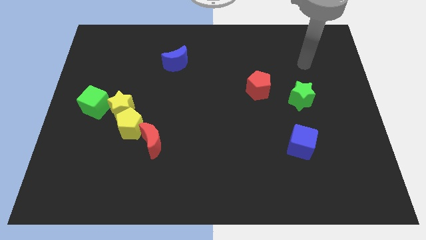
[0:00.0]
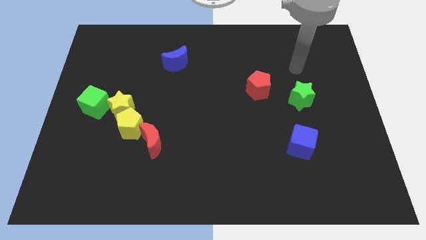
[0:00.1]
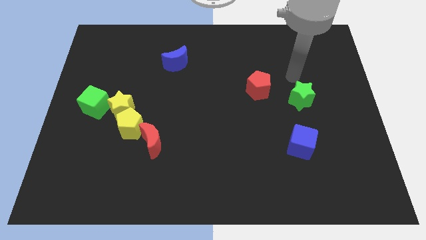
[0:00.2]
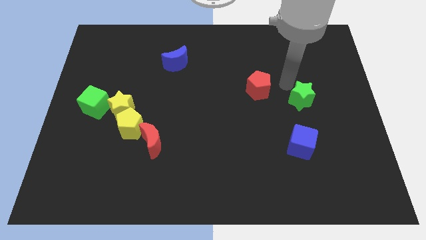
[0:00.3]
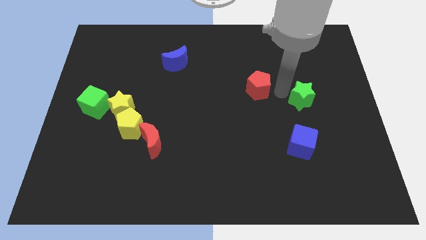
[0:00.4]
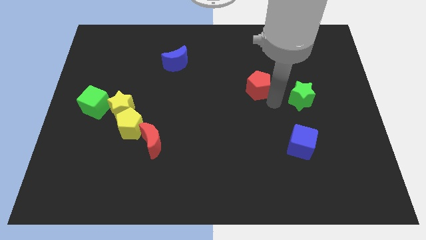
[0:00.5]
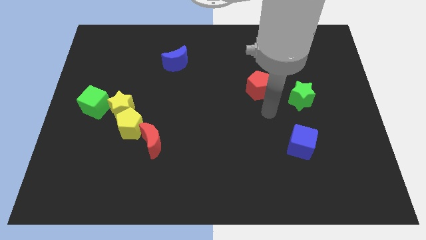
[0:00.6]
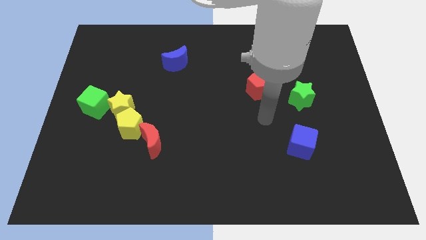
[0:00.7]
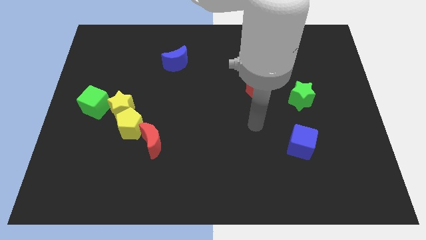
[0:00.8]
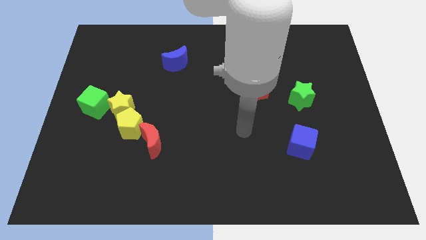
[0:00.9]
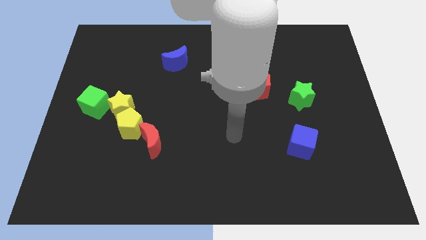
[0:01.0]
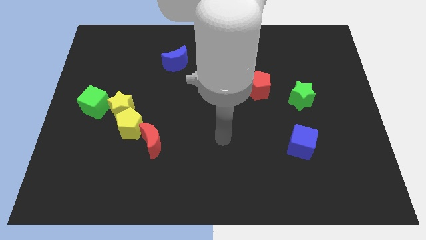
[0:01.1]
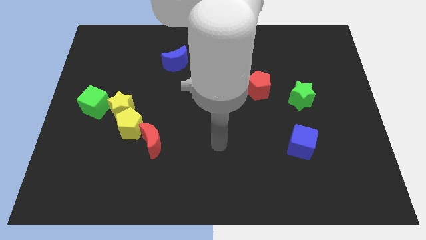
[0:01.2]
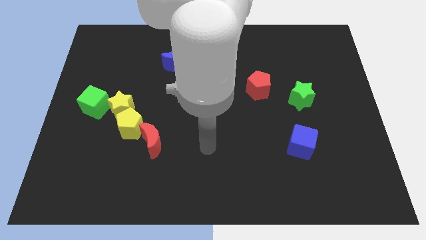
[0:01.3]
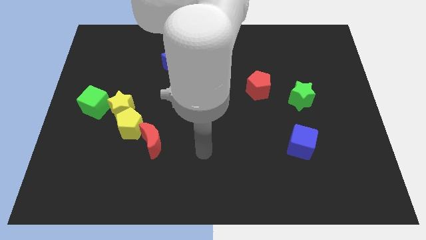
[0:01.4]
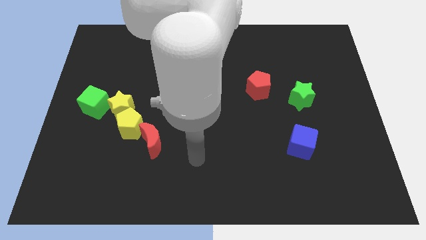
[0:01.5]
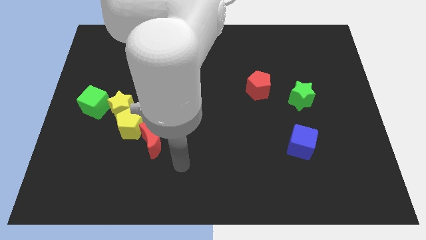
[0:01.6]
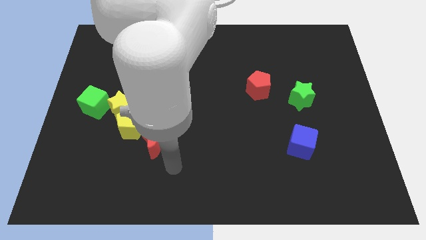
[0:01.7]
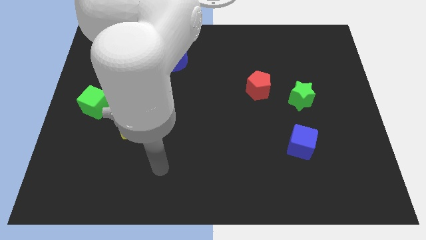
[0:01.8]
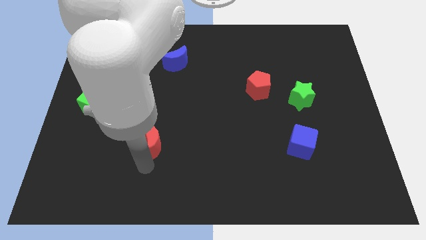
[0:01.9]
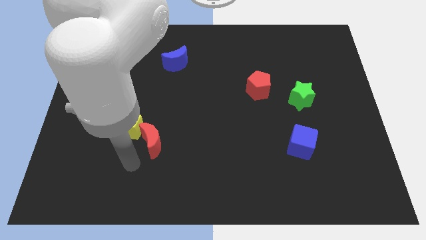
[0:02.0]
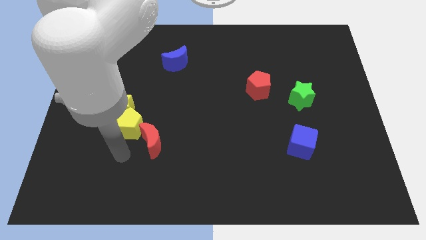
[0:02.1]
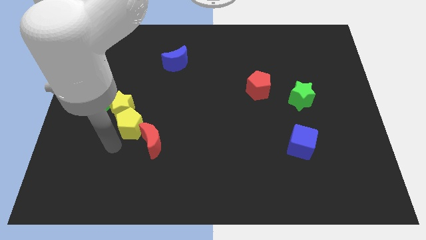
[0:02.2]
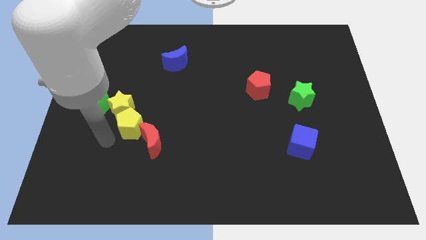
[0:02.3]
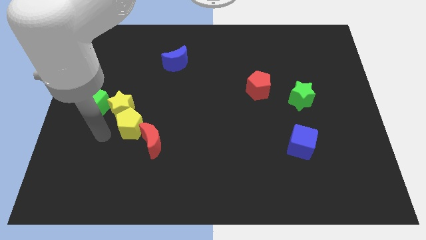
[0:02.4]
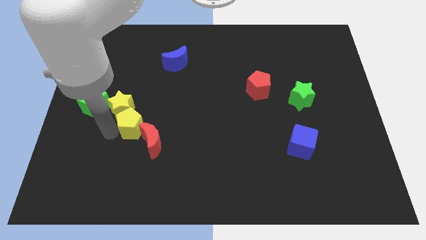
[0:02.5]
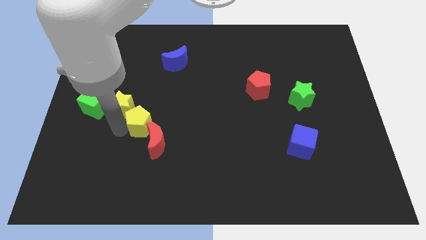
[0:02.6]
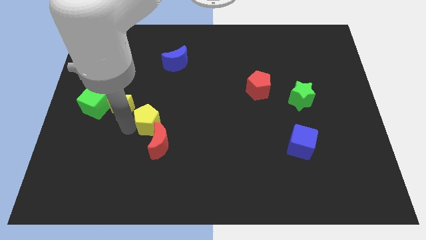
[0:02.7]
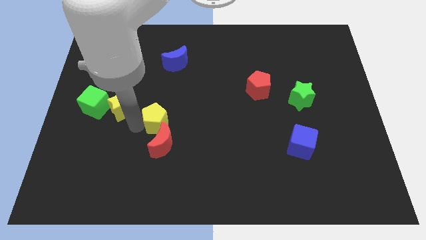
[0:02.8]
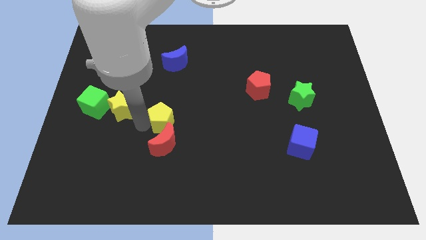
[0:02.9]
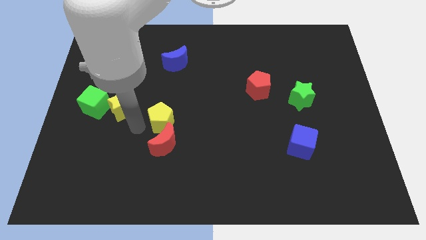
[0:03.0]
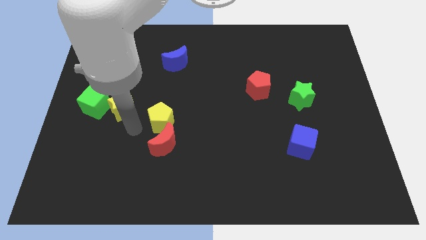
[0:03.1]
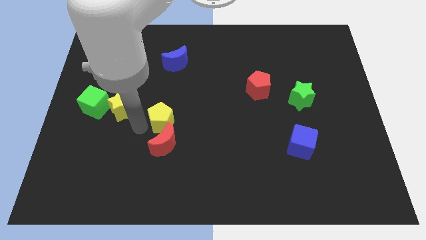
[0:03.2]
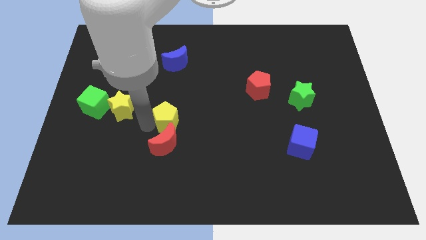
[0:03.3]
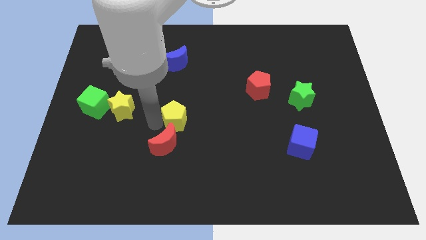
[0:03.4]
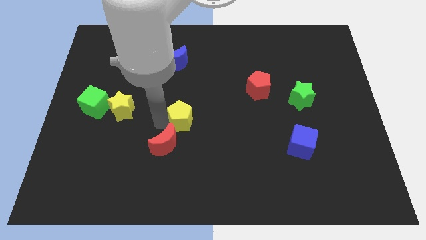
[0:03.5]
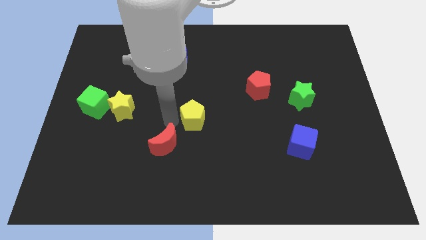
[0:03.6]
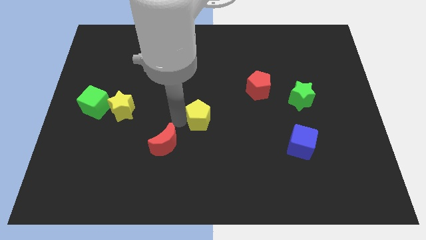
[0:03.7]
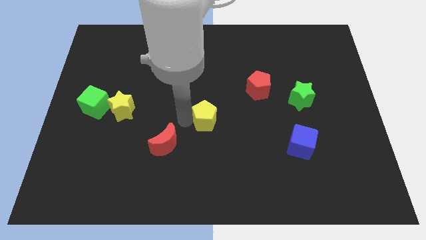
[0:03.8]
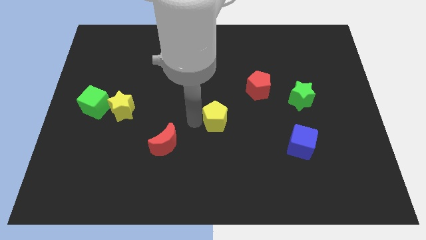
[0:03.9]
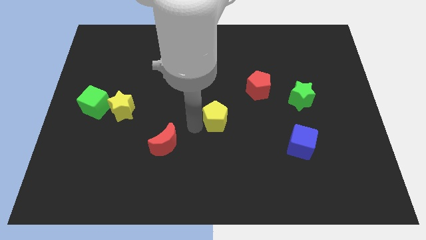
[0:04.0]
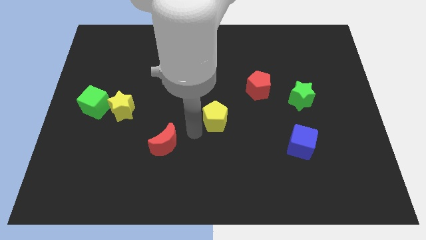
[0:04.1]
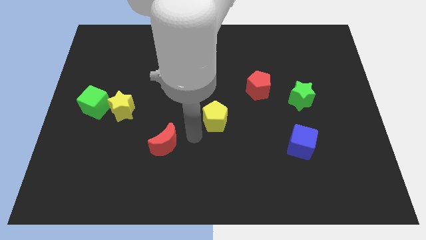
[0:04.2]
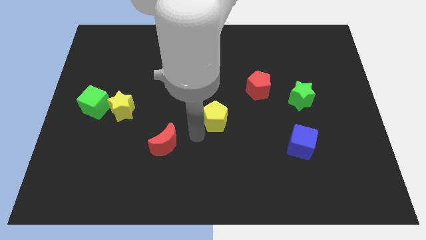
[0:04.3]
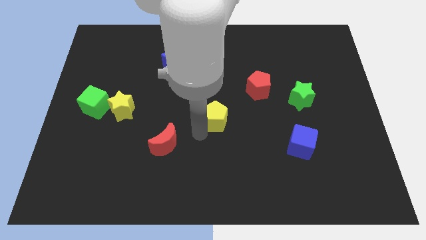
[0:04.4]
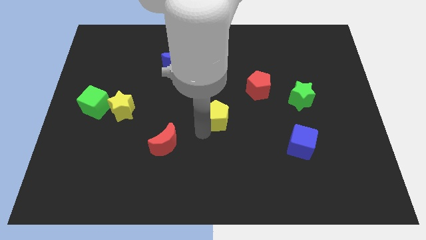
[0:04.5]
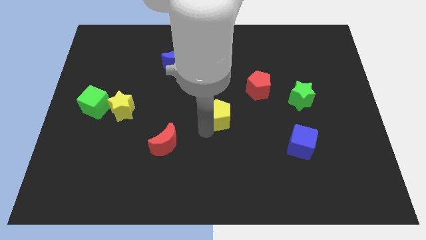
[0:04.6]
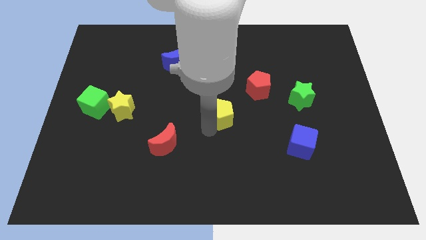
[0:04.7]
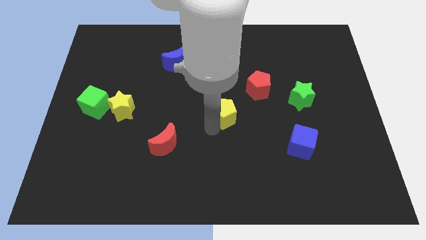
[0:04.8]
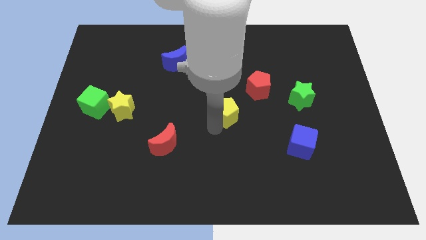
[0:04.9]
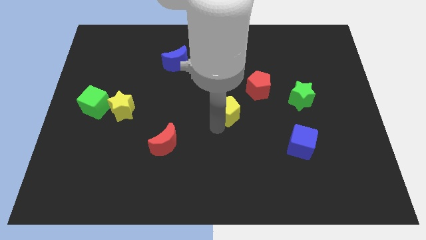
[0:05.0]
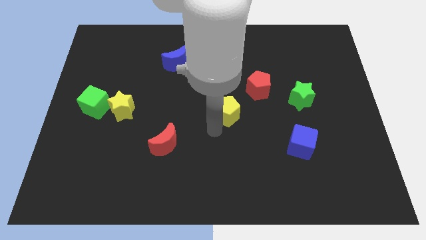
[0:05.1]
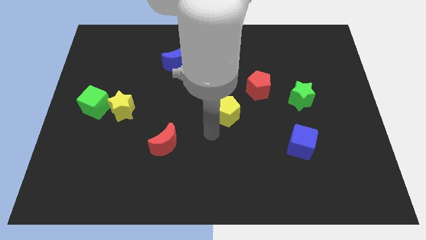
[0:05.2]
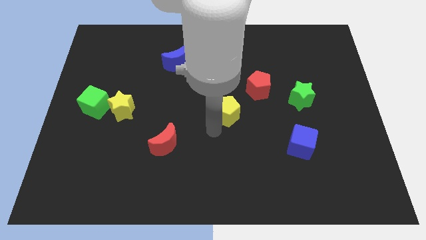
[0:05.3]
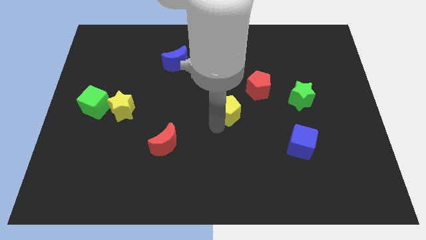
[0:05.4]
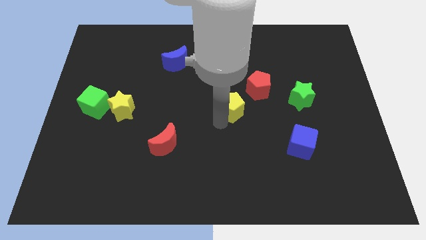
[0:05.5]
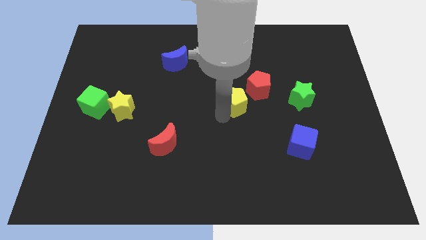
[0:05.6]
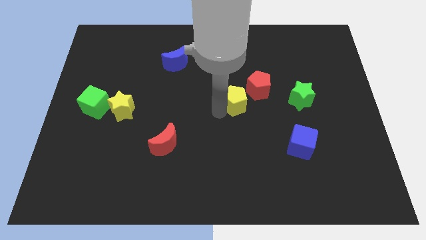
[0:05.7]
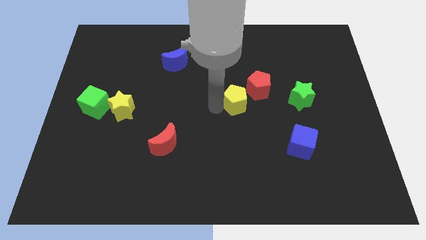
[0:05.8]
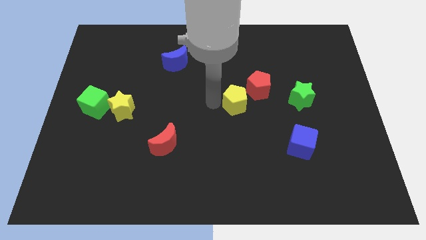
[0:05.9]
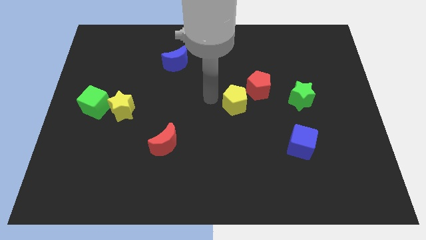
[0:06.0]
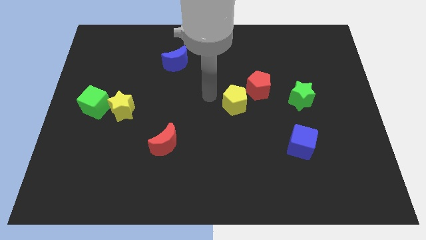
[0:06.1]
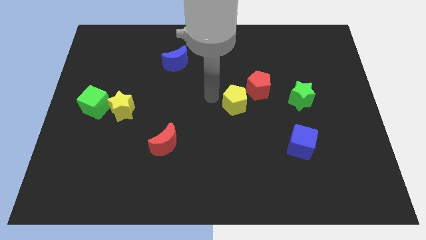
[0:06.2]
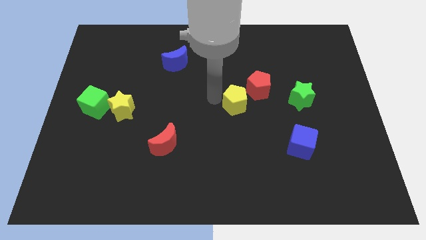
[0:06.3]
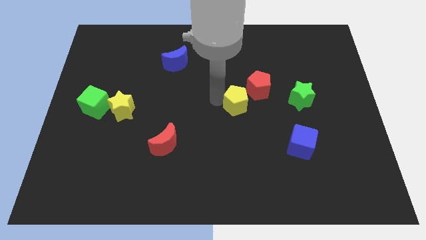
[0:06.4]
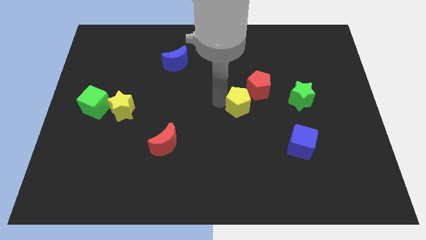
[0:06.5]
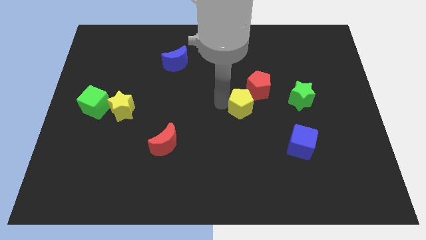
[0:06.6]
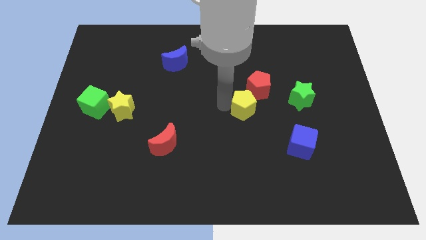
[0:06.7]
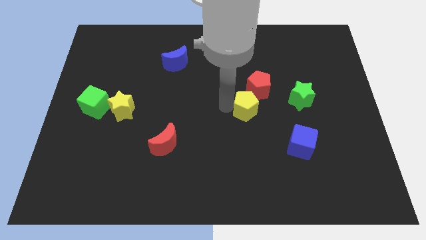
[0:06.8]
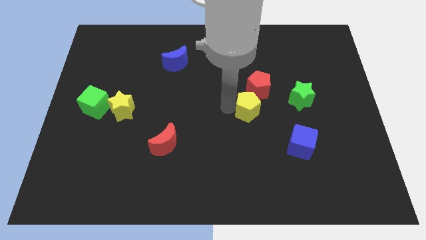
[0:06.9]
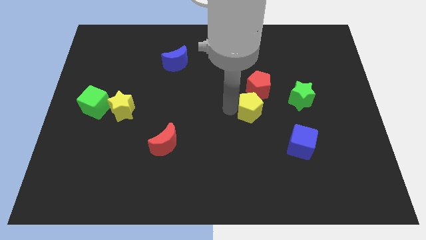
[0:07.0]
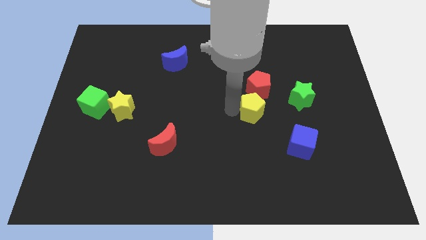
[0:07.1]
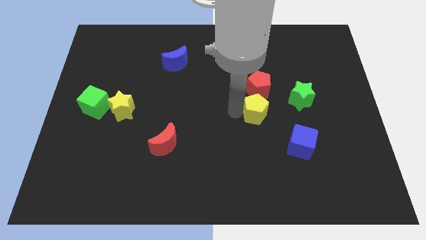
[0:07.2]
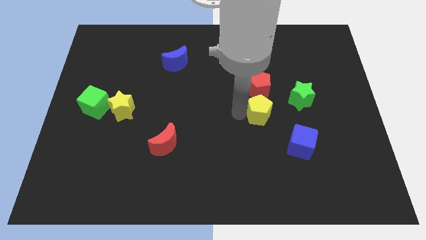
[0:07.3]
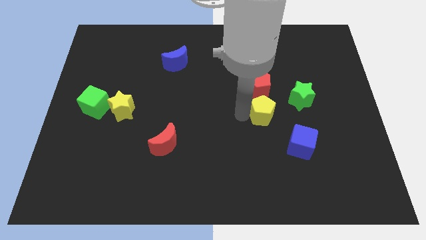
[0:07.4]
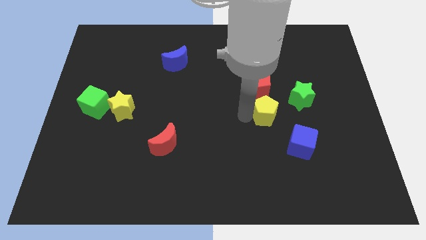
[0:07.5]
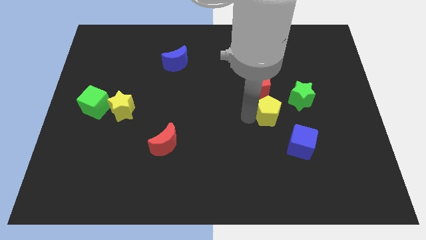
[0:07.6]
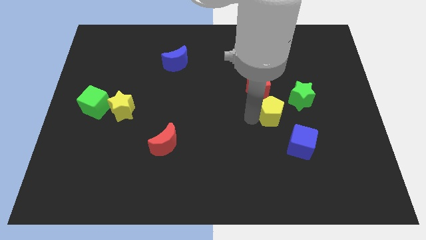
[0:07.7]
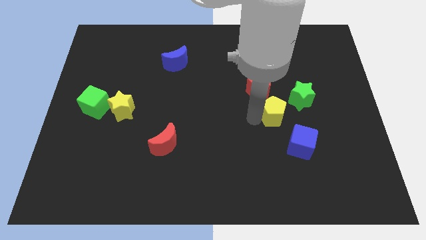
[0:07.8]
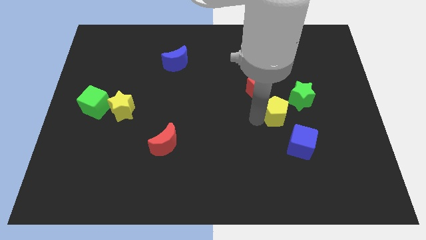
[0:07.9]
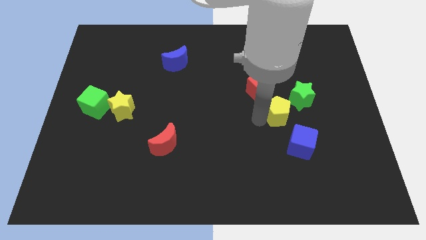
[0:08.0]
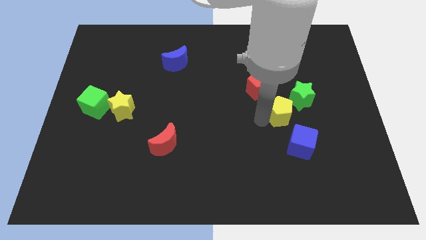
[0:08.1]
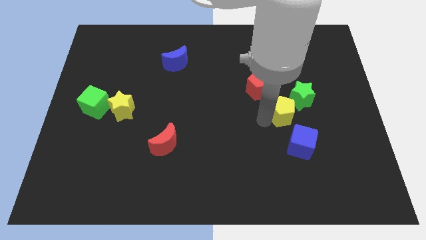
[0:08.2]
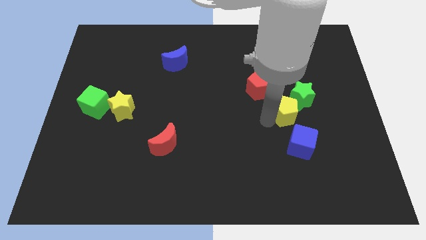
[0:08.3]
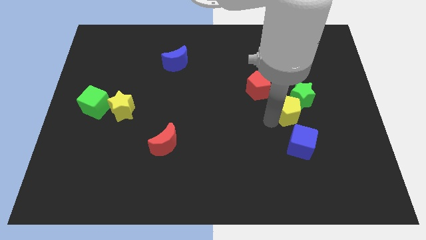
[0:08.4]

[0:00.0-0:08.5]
put the yellow pentagon towards the green star
